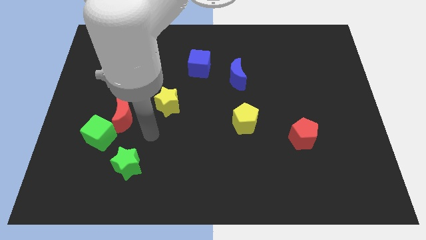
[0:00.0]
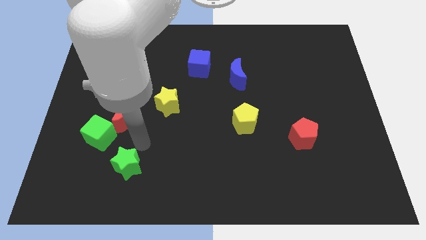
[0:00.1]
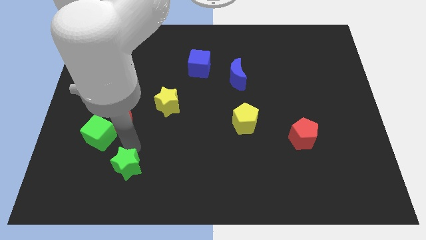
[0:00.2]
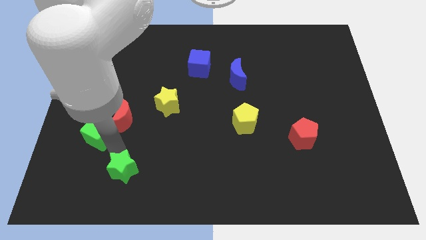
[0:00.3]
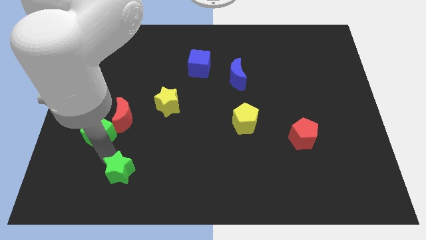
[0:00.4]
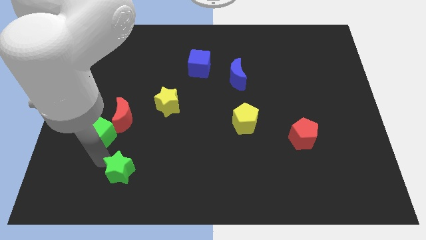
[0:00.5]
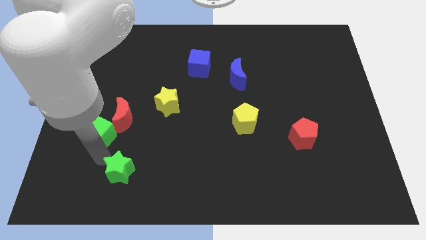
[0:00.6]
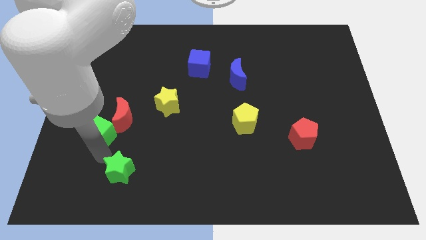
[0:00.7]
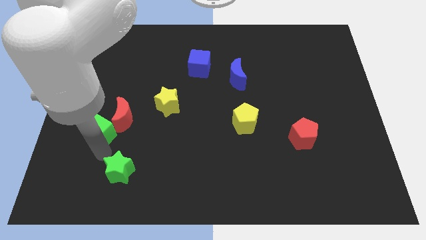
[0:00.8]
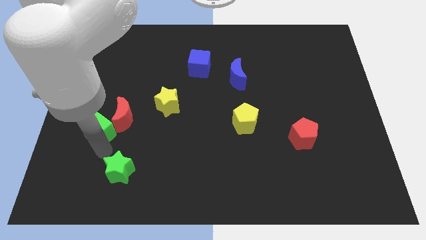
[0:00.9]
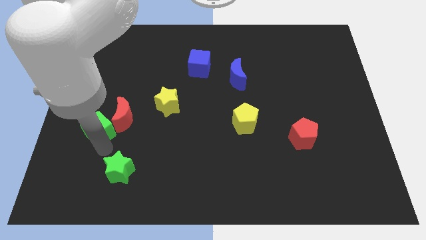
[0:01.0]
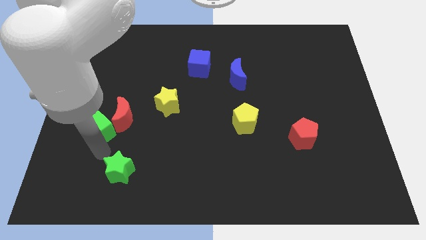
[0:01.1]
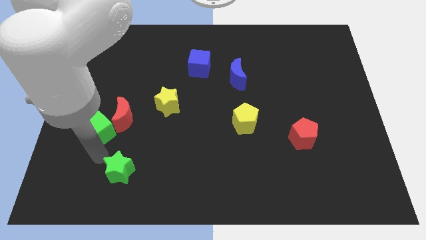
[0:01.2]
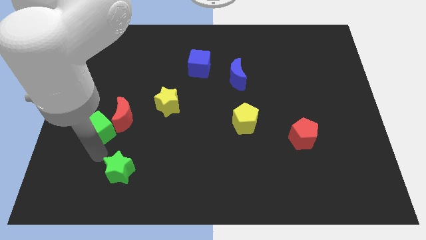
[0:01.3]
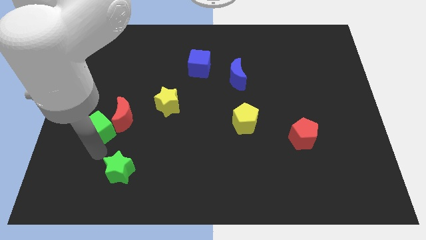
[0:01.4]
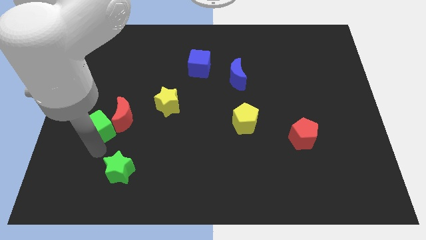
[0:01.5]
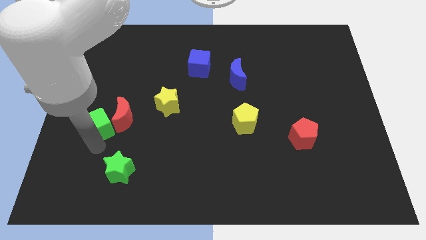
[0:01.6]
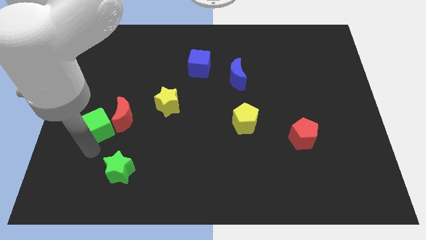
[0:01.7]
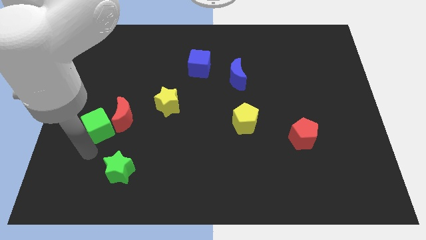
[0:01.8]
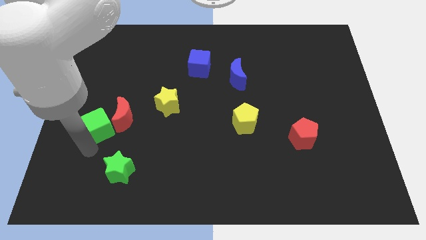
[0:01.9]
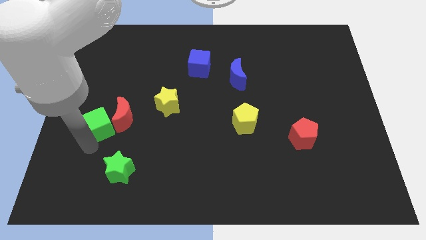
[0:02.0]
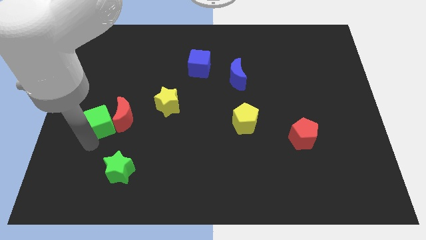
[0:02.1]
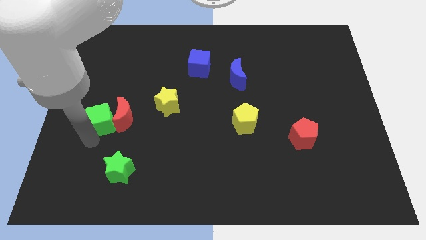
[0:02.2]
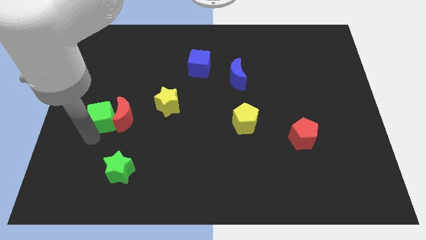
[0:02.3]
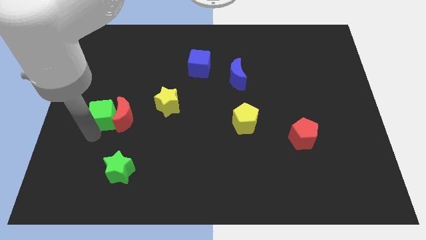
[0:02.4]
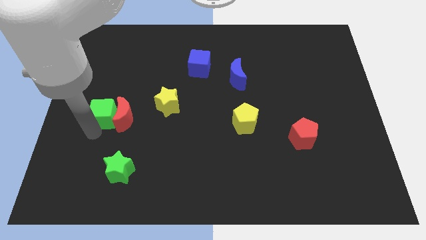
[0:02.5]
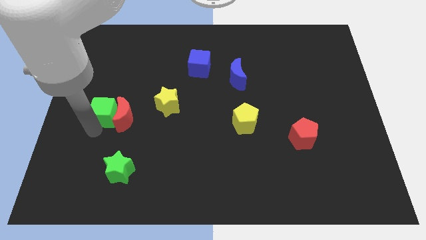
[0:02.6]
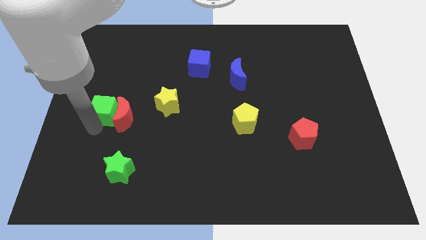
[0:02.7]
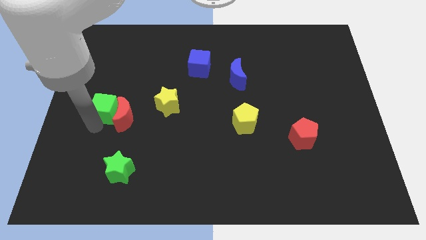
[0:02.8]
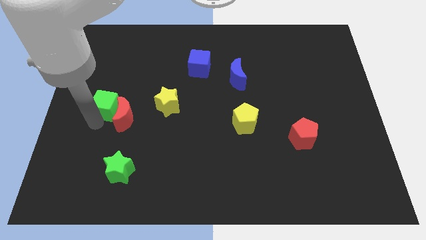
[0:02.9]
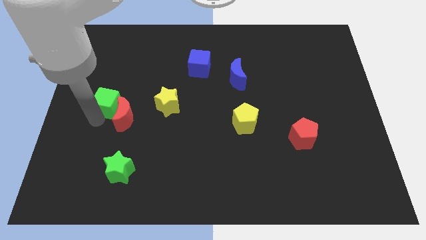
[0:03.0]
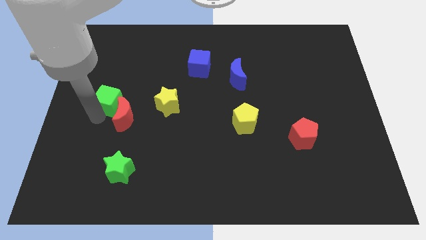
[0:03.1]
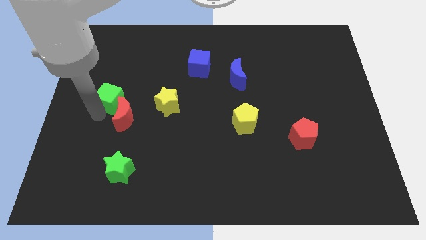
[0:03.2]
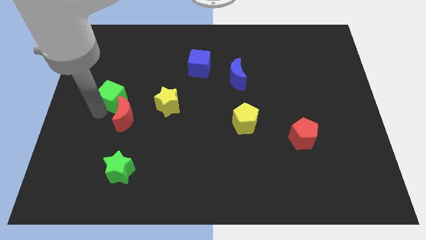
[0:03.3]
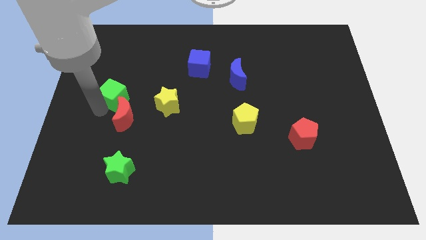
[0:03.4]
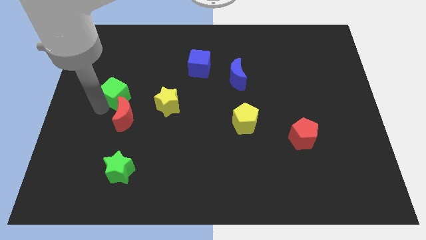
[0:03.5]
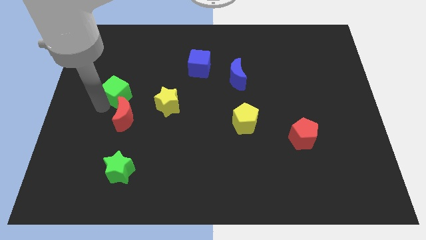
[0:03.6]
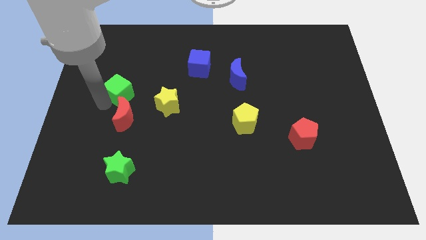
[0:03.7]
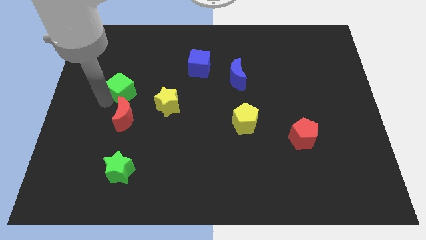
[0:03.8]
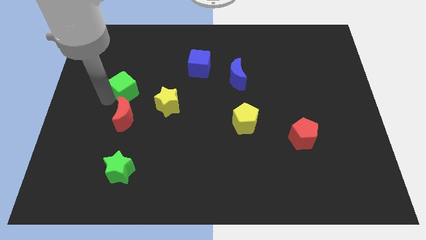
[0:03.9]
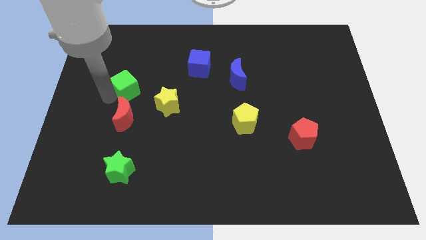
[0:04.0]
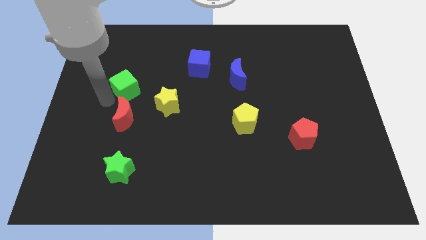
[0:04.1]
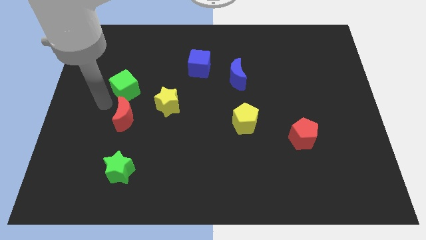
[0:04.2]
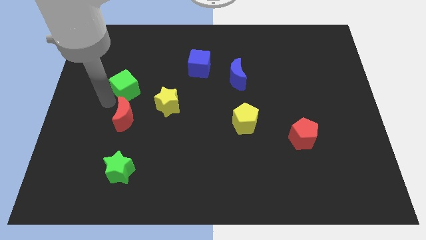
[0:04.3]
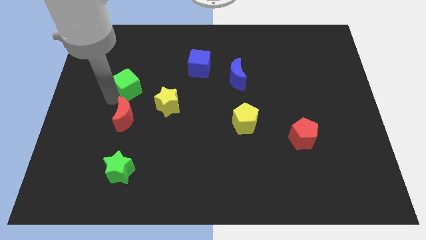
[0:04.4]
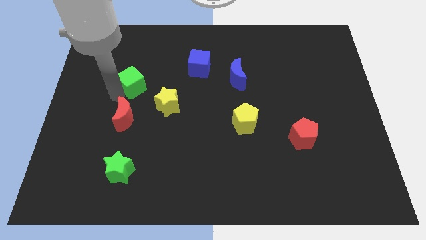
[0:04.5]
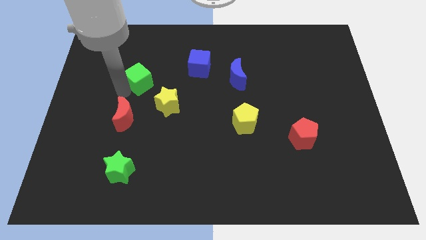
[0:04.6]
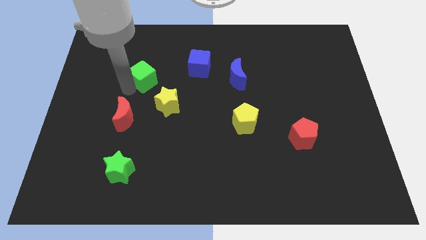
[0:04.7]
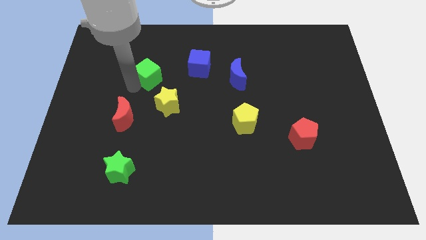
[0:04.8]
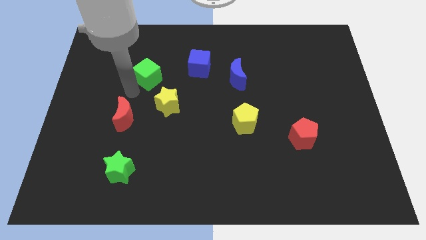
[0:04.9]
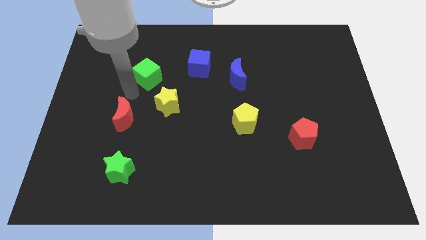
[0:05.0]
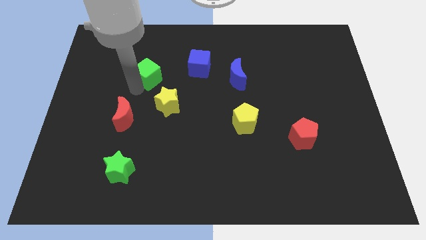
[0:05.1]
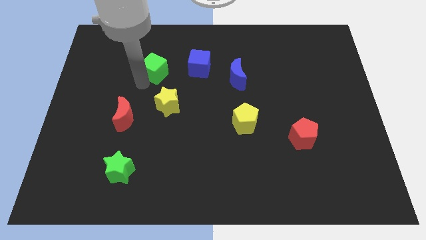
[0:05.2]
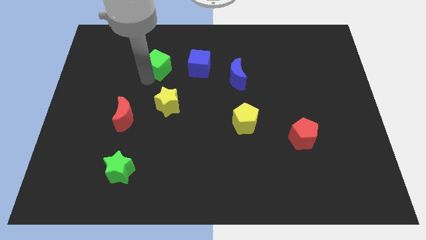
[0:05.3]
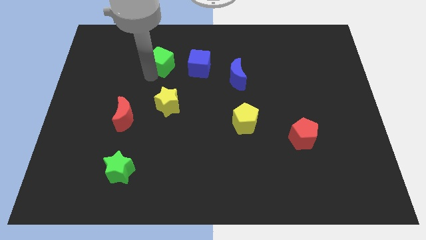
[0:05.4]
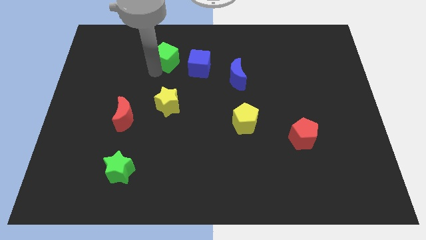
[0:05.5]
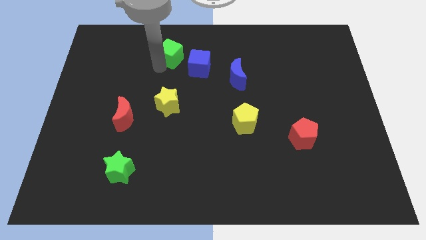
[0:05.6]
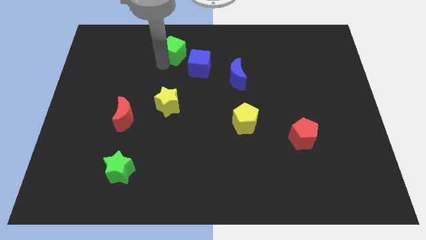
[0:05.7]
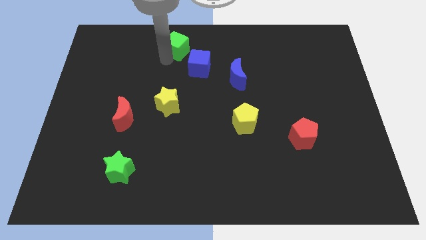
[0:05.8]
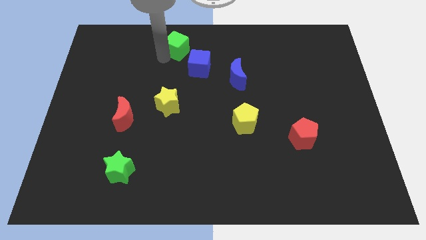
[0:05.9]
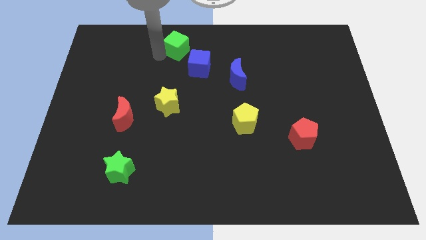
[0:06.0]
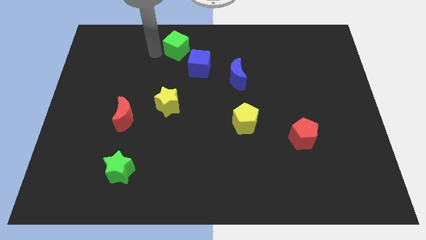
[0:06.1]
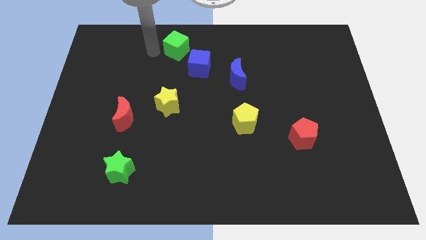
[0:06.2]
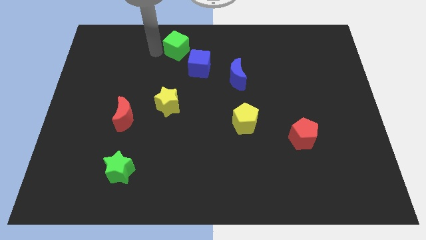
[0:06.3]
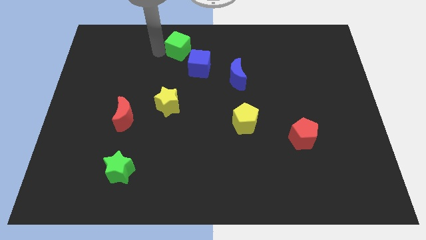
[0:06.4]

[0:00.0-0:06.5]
put the green cube to the top side
